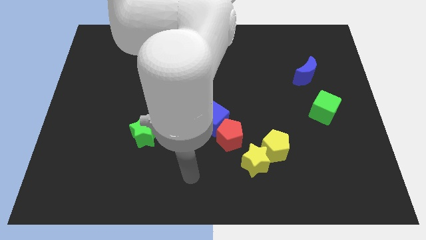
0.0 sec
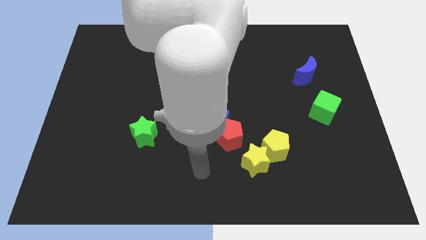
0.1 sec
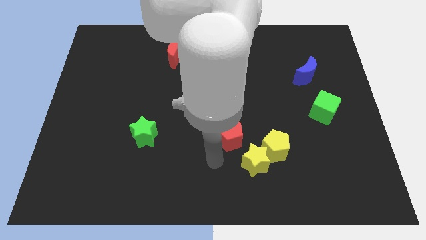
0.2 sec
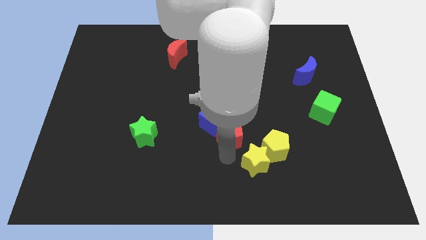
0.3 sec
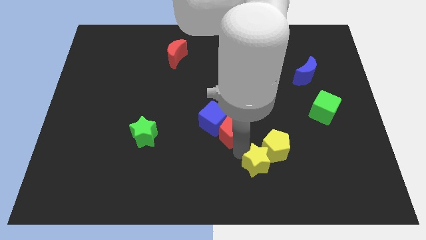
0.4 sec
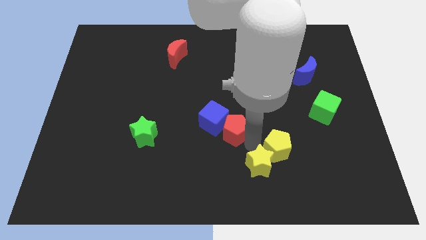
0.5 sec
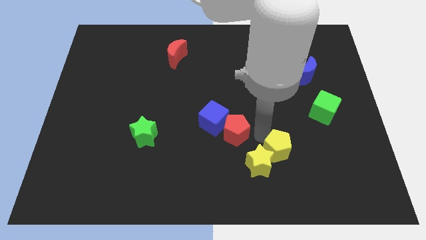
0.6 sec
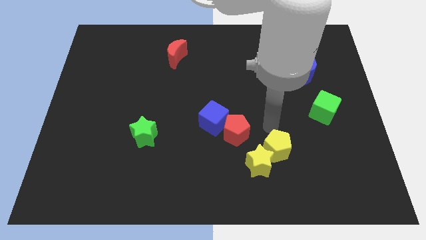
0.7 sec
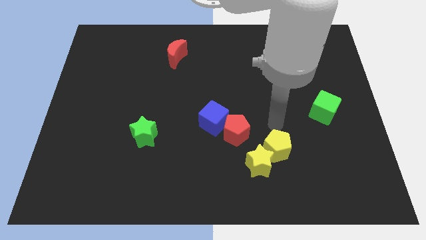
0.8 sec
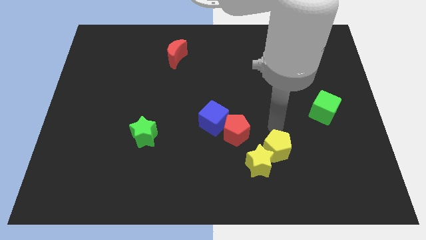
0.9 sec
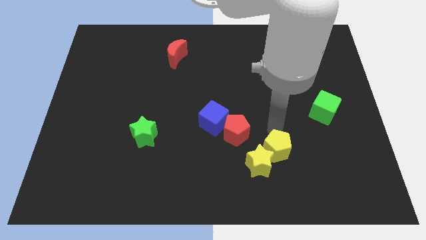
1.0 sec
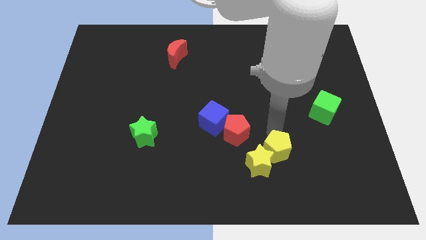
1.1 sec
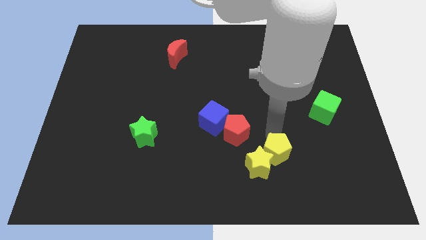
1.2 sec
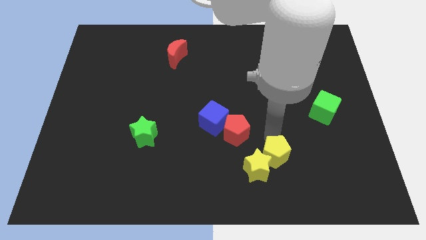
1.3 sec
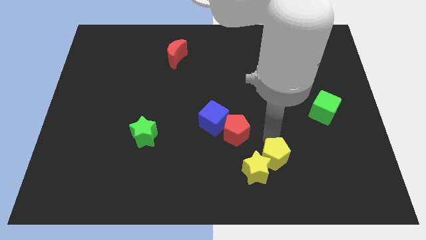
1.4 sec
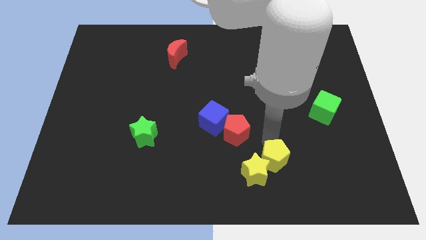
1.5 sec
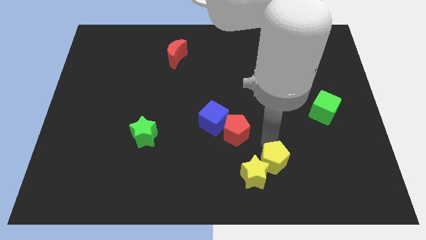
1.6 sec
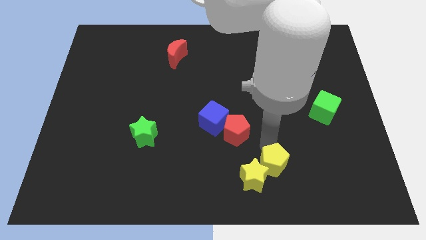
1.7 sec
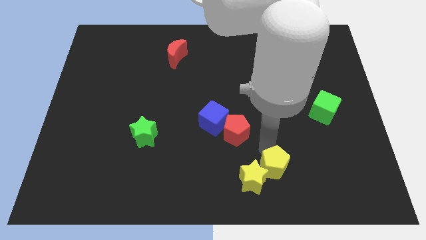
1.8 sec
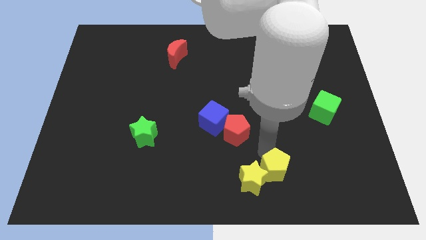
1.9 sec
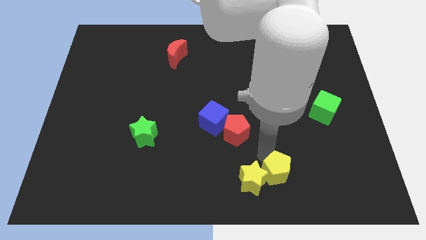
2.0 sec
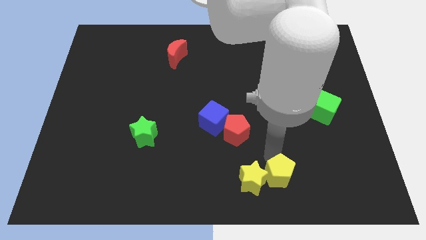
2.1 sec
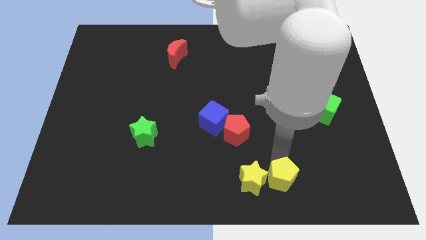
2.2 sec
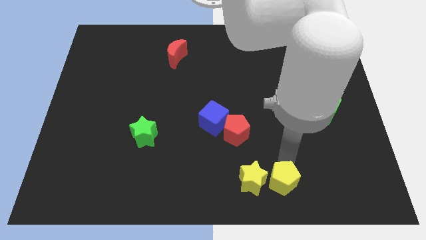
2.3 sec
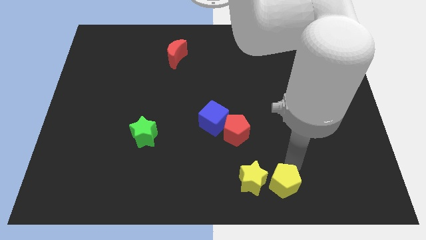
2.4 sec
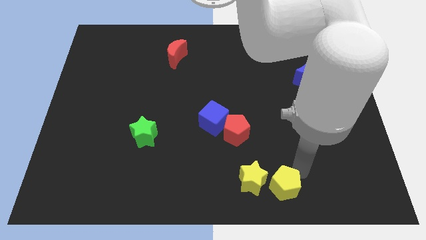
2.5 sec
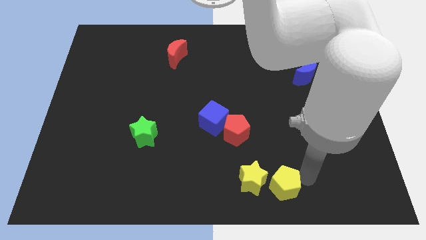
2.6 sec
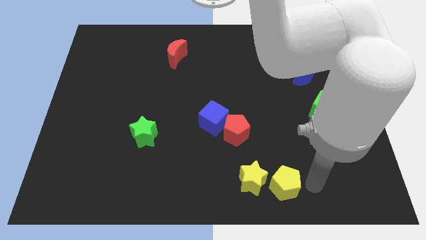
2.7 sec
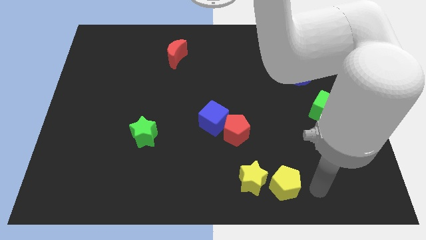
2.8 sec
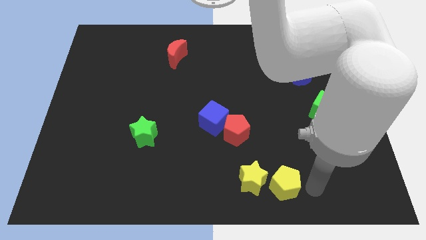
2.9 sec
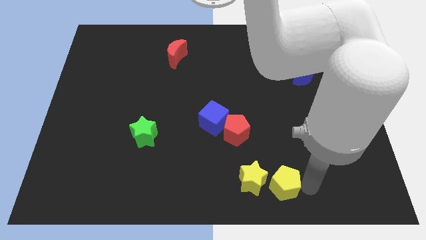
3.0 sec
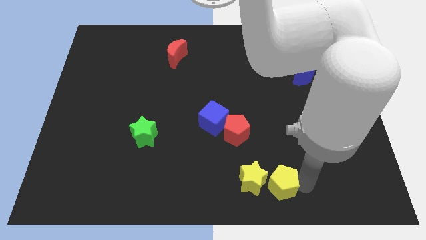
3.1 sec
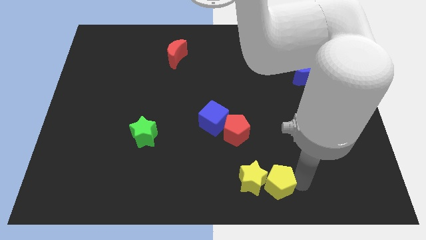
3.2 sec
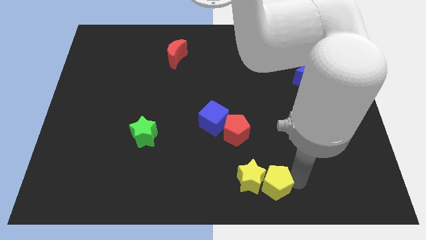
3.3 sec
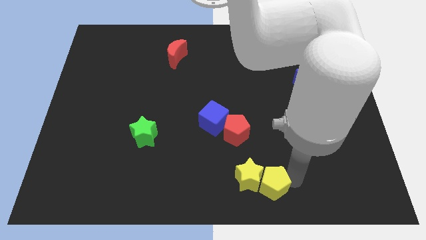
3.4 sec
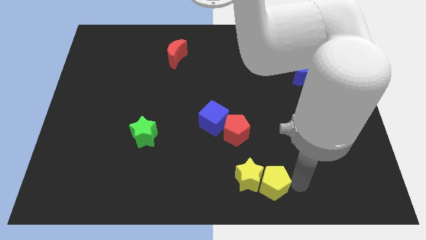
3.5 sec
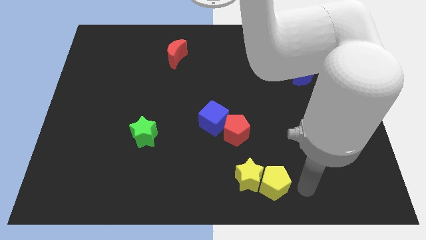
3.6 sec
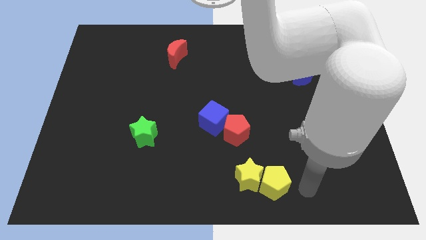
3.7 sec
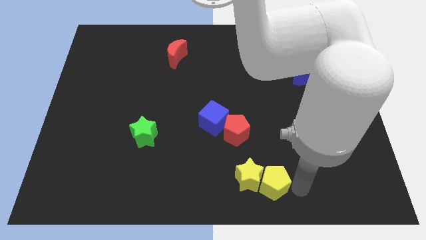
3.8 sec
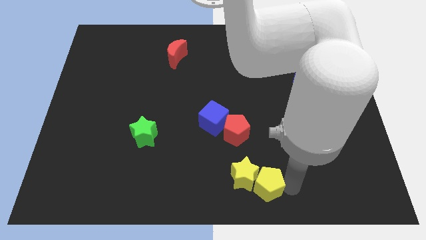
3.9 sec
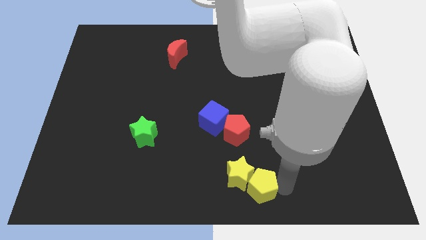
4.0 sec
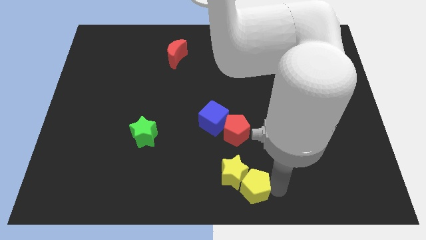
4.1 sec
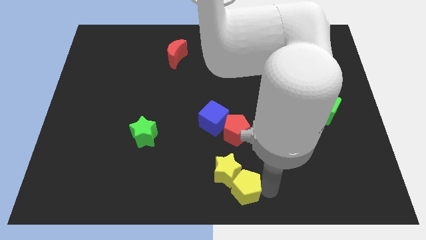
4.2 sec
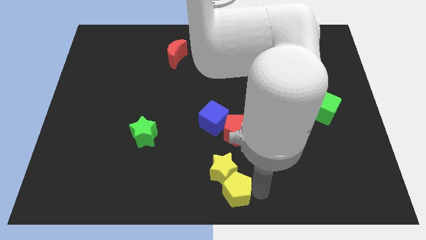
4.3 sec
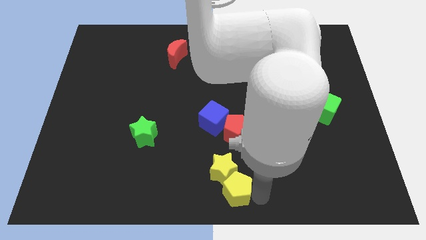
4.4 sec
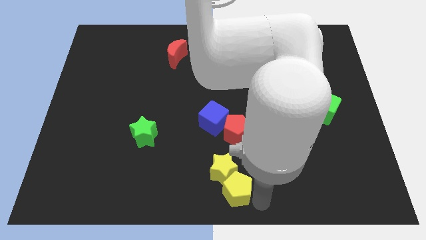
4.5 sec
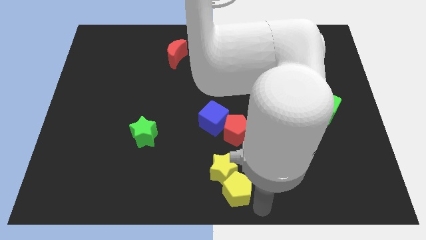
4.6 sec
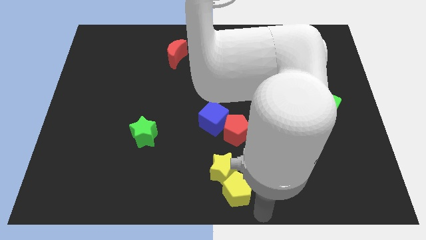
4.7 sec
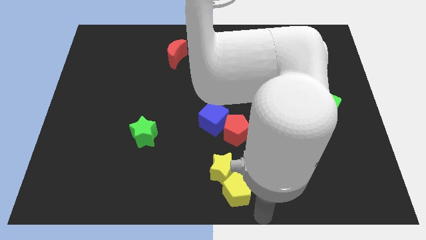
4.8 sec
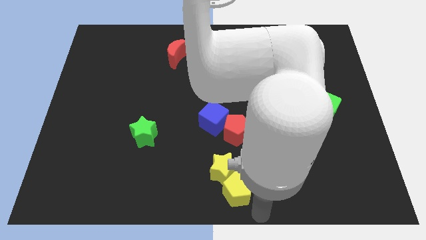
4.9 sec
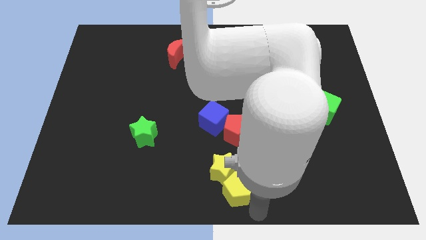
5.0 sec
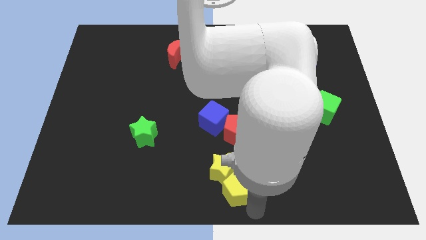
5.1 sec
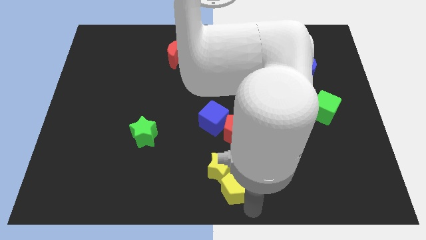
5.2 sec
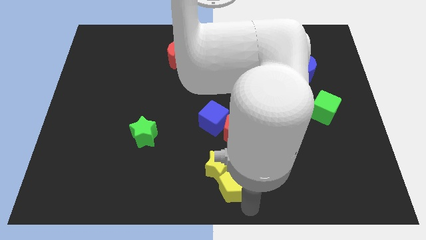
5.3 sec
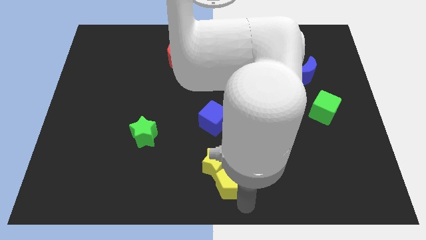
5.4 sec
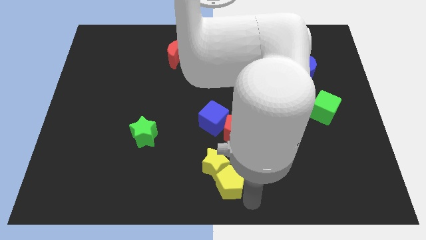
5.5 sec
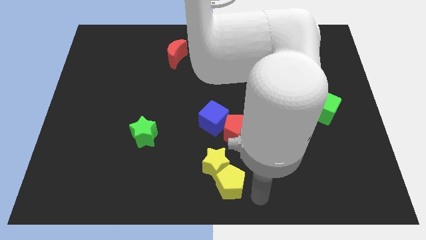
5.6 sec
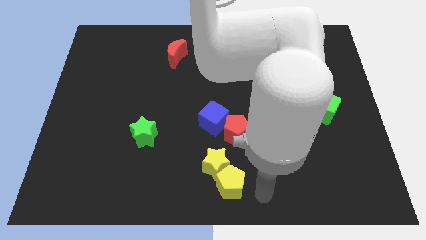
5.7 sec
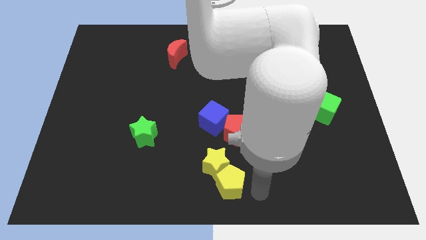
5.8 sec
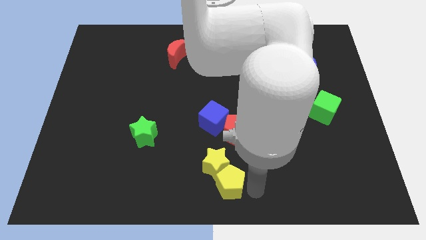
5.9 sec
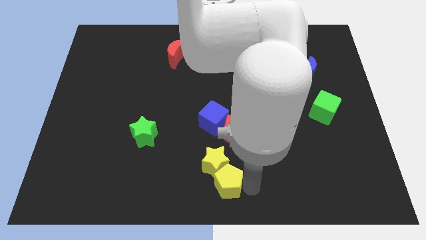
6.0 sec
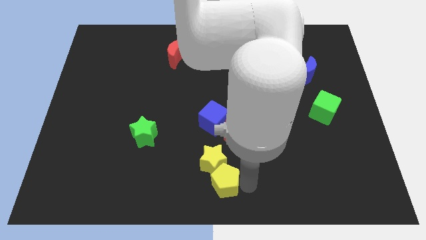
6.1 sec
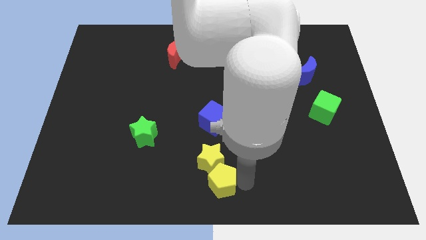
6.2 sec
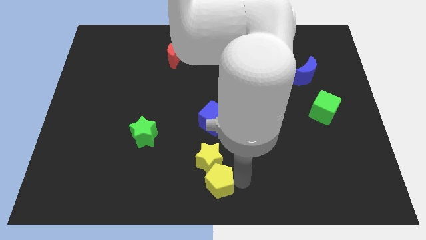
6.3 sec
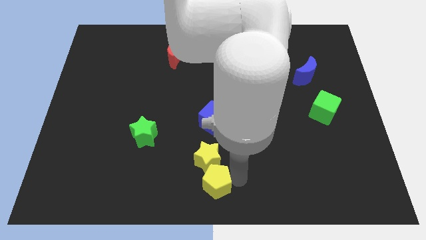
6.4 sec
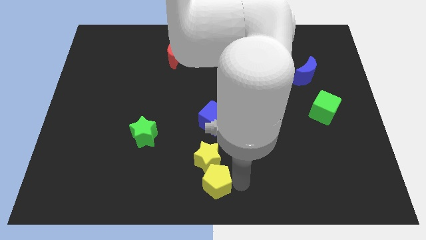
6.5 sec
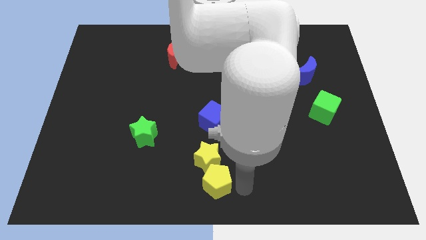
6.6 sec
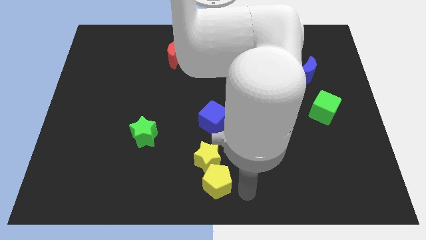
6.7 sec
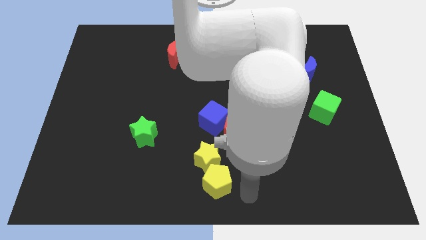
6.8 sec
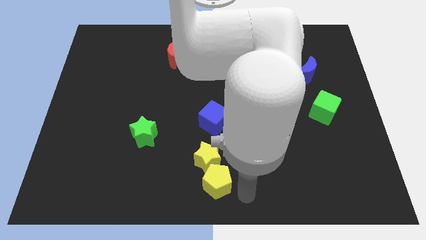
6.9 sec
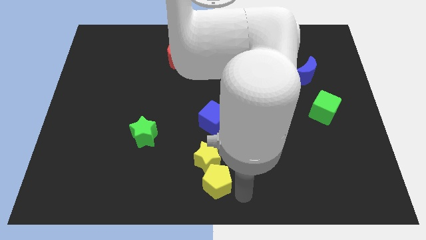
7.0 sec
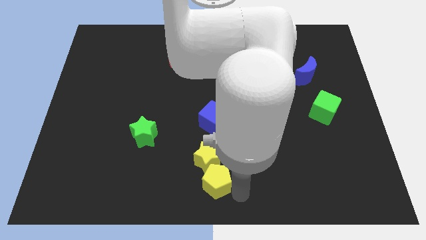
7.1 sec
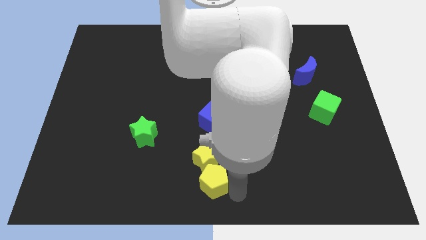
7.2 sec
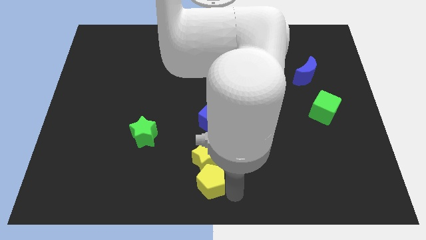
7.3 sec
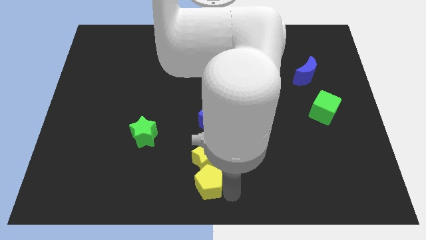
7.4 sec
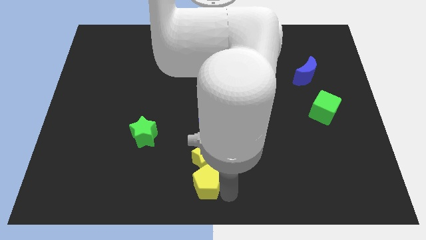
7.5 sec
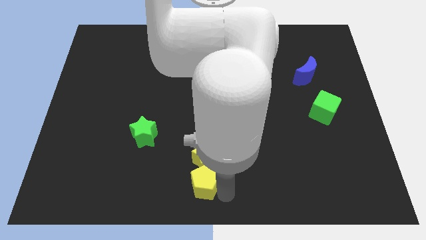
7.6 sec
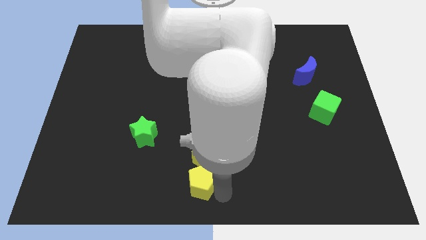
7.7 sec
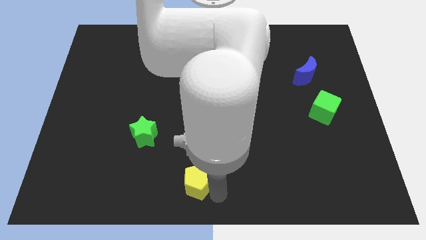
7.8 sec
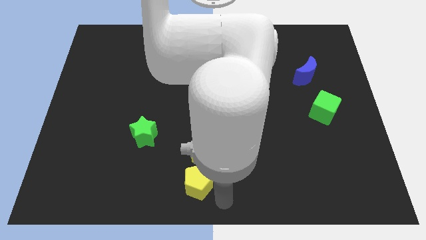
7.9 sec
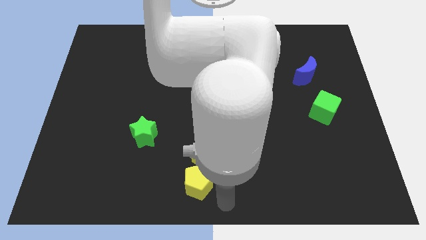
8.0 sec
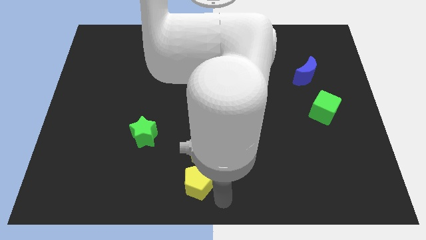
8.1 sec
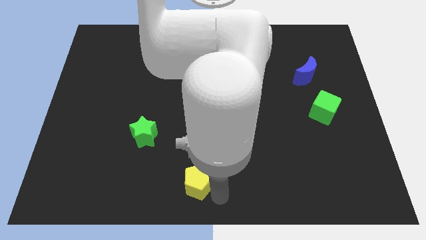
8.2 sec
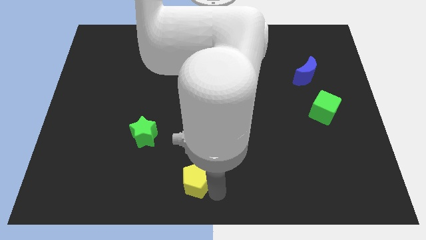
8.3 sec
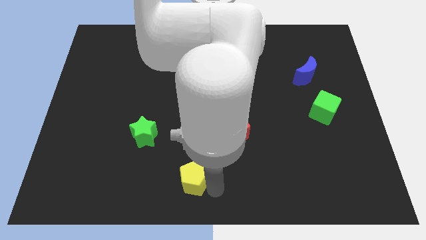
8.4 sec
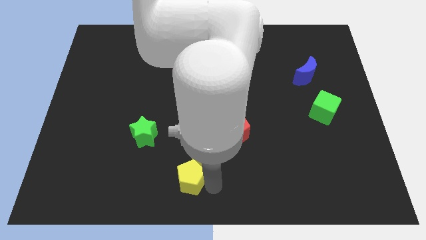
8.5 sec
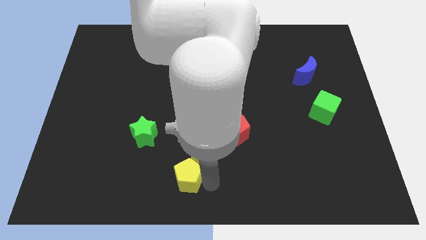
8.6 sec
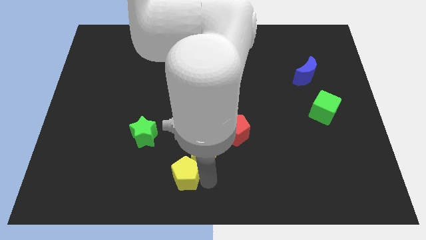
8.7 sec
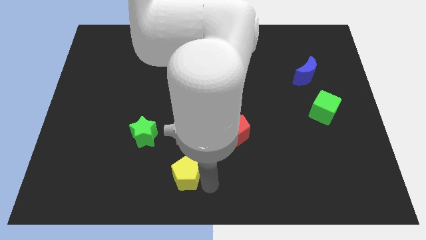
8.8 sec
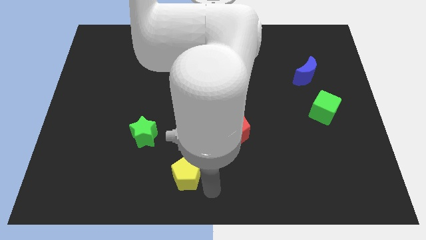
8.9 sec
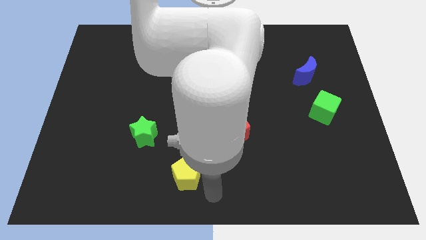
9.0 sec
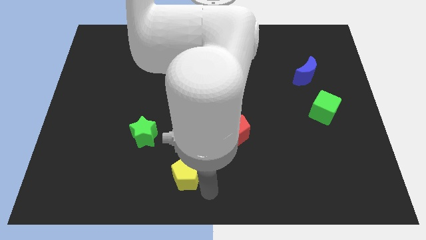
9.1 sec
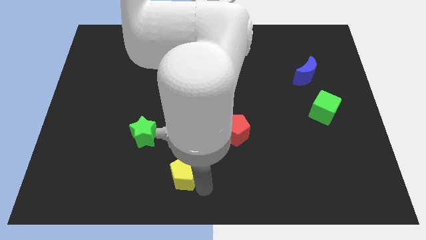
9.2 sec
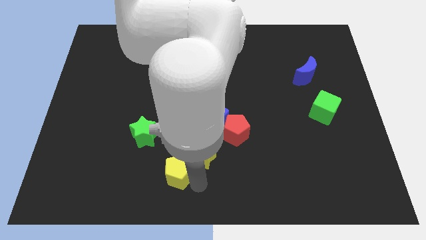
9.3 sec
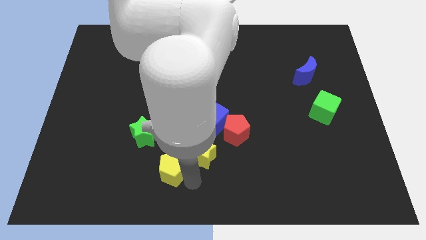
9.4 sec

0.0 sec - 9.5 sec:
slide the yellow pentagon left
